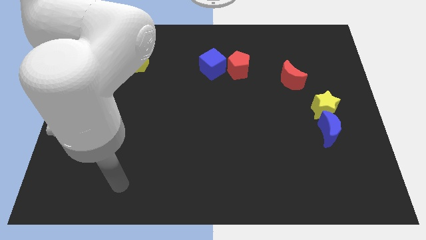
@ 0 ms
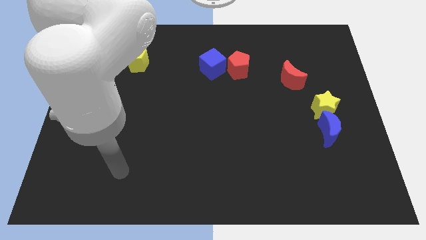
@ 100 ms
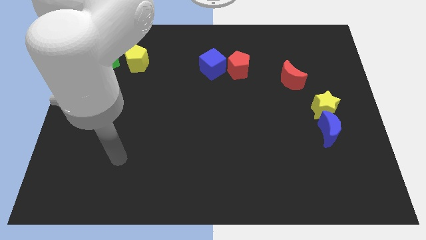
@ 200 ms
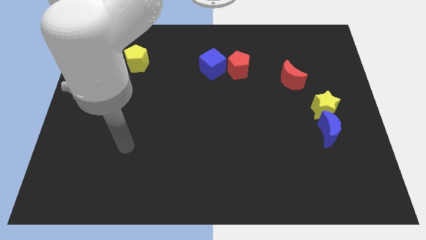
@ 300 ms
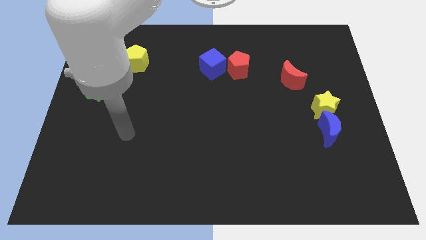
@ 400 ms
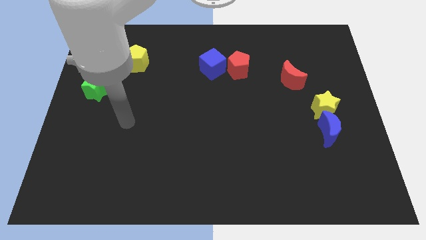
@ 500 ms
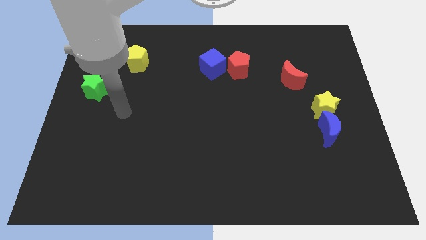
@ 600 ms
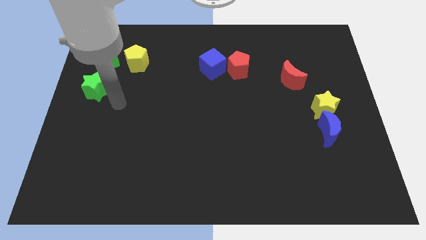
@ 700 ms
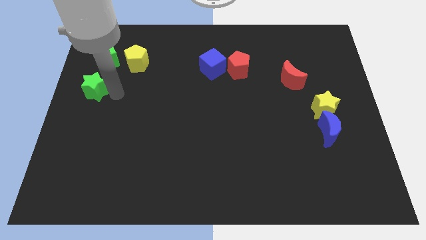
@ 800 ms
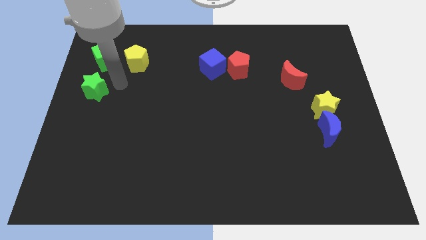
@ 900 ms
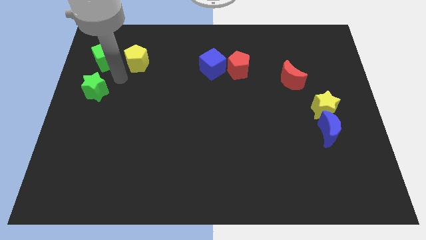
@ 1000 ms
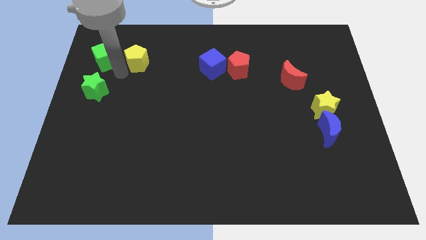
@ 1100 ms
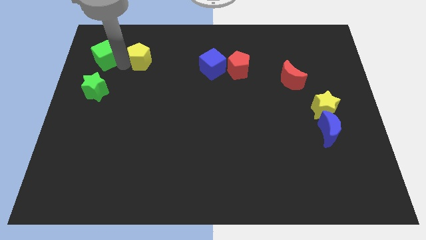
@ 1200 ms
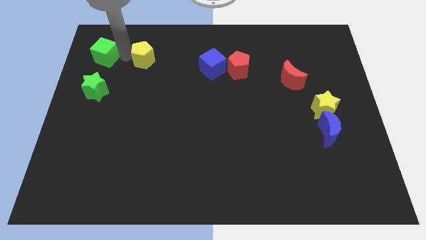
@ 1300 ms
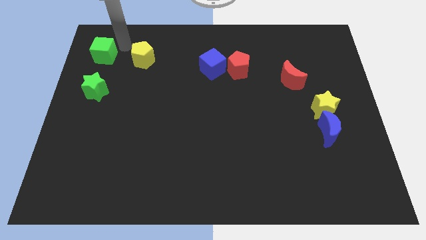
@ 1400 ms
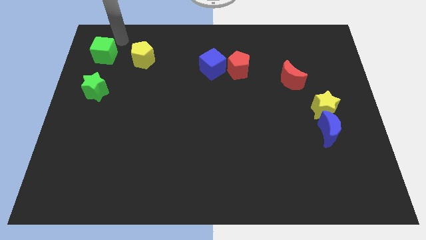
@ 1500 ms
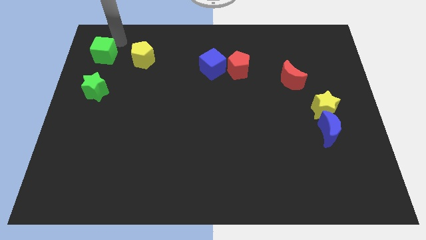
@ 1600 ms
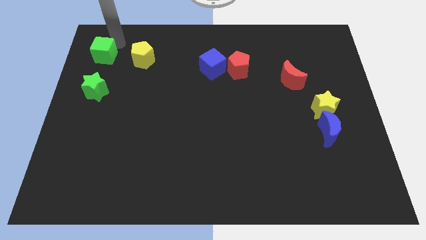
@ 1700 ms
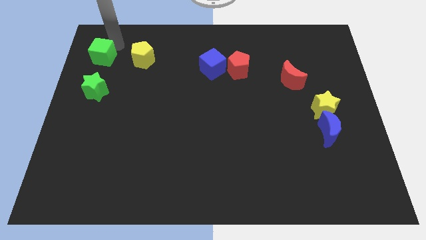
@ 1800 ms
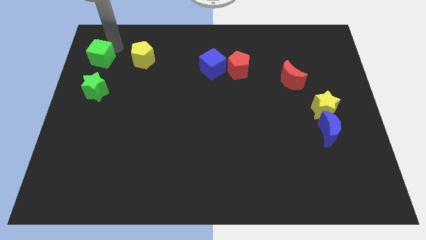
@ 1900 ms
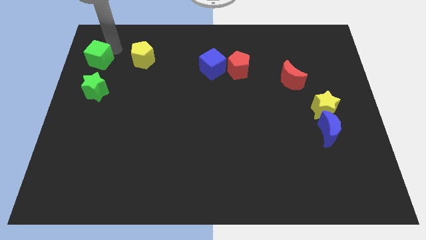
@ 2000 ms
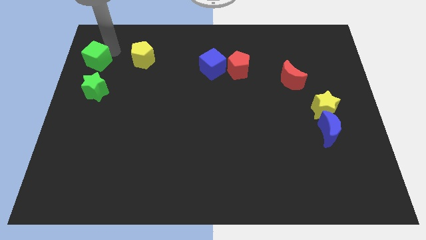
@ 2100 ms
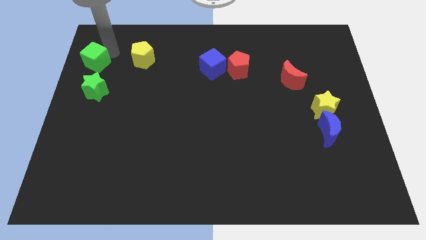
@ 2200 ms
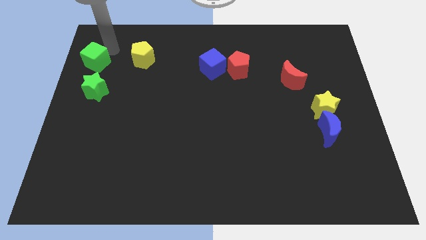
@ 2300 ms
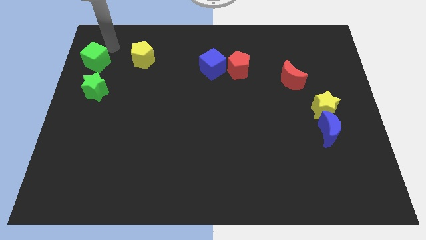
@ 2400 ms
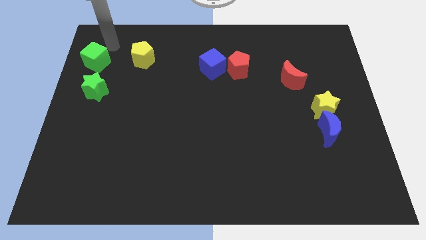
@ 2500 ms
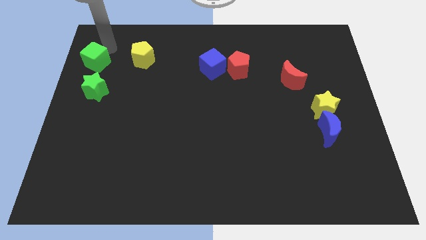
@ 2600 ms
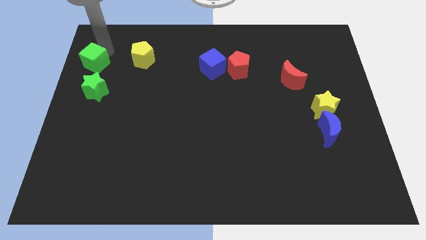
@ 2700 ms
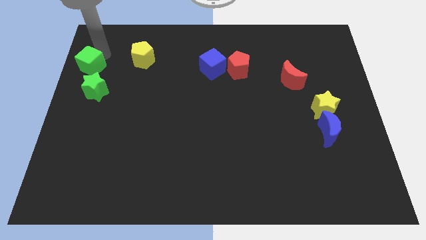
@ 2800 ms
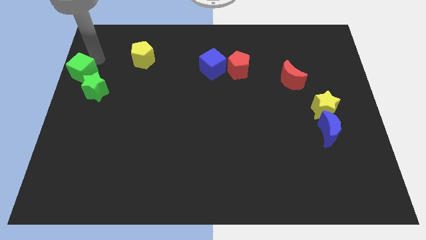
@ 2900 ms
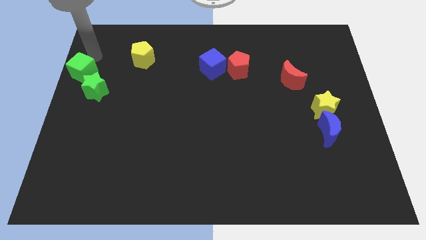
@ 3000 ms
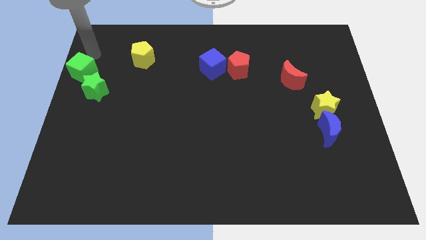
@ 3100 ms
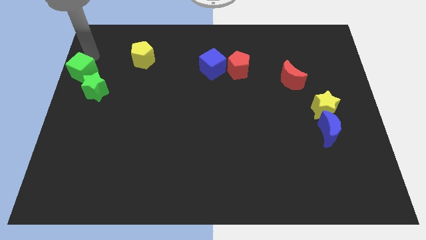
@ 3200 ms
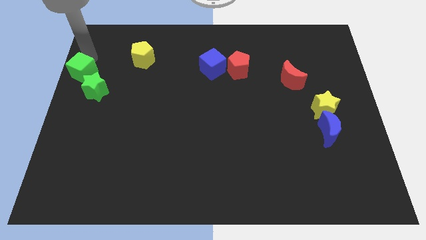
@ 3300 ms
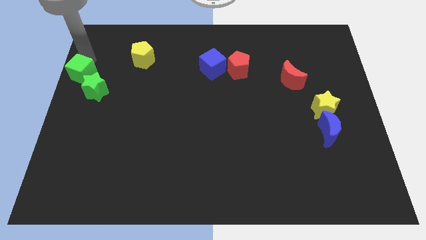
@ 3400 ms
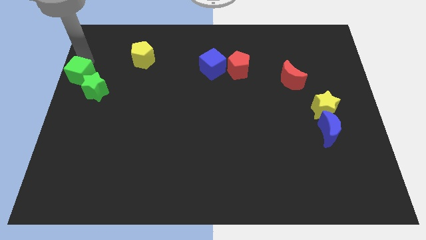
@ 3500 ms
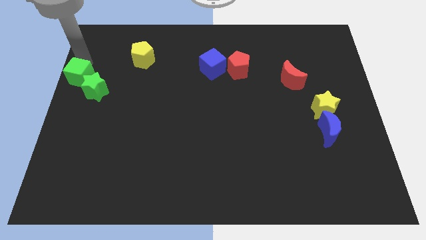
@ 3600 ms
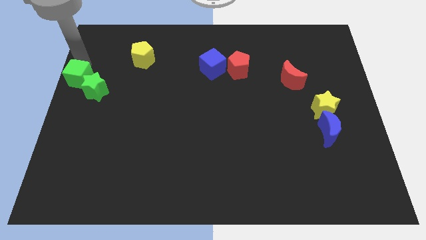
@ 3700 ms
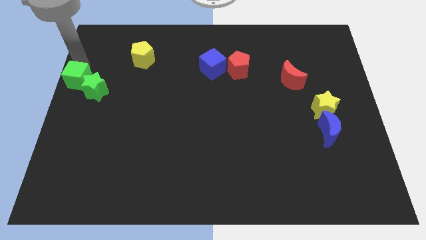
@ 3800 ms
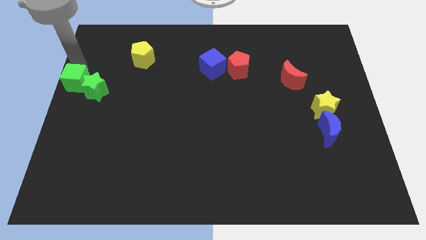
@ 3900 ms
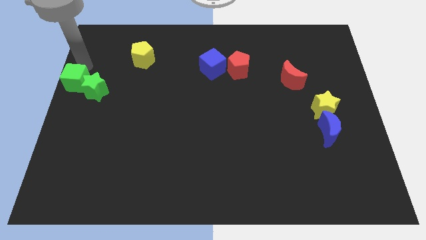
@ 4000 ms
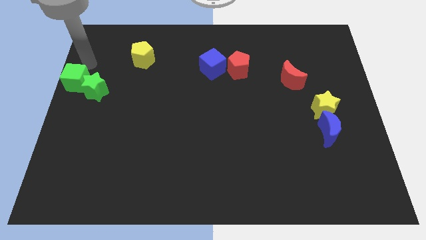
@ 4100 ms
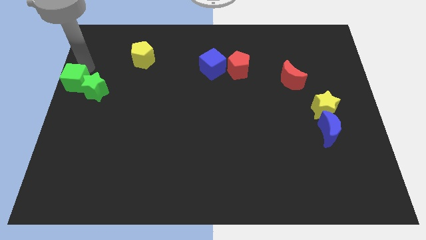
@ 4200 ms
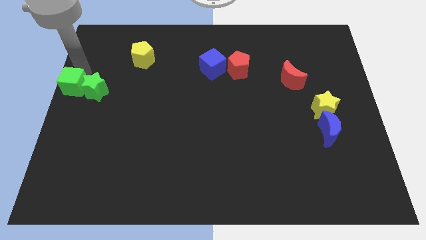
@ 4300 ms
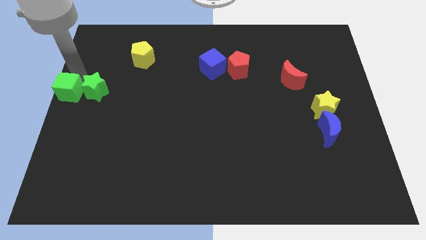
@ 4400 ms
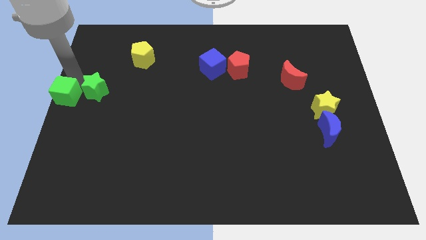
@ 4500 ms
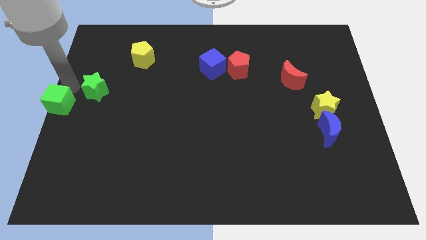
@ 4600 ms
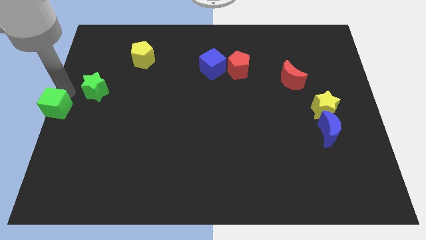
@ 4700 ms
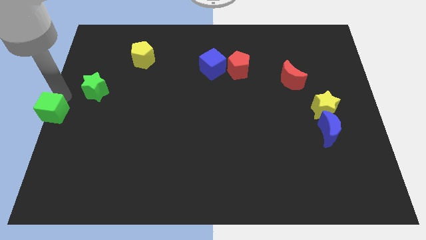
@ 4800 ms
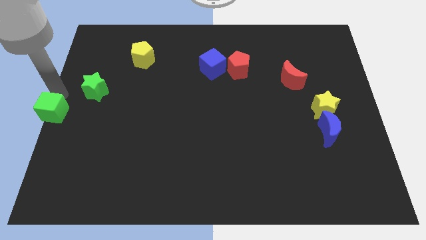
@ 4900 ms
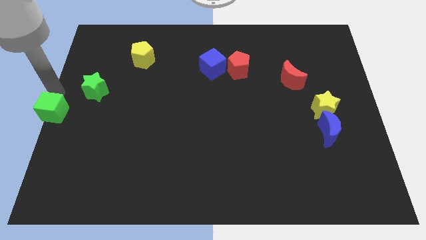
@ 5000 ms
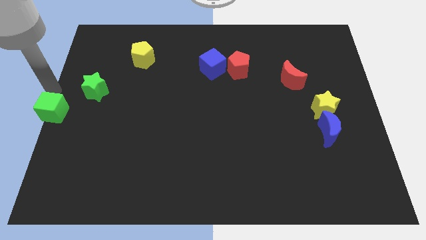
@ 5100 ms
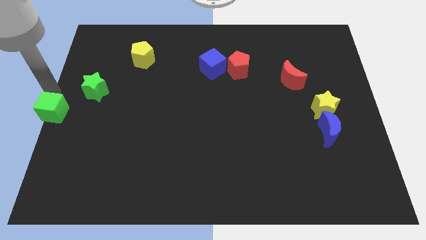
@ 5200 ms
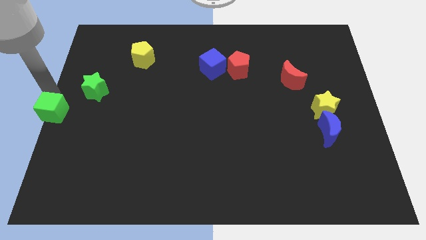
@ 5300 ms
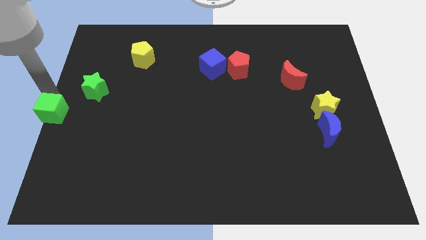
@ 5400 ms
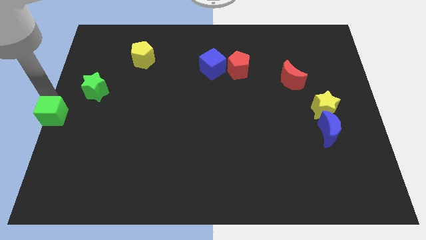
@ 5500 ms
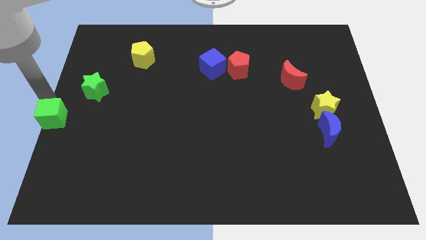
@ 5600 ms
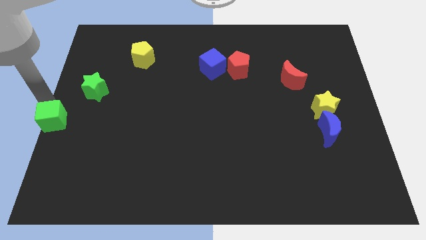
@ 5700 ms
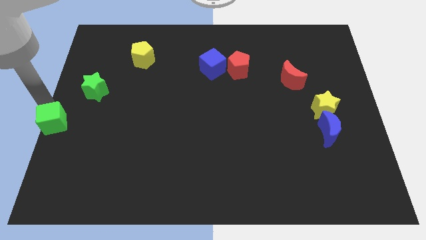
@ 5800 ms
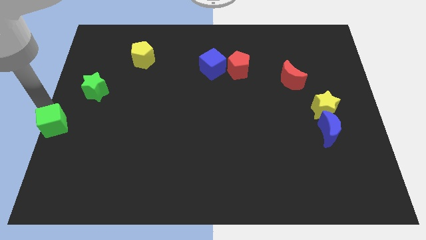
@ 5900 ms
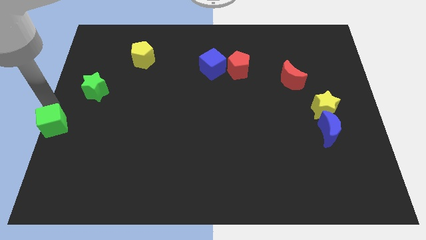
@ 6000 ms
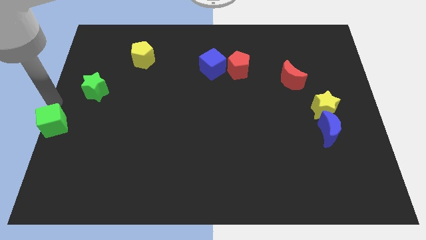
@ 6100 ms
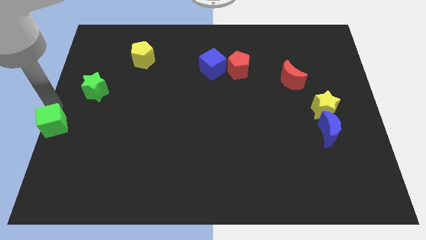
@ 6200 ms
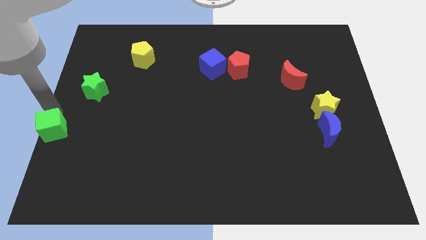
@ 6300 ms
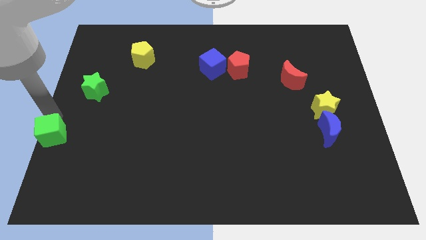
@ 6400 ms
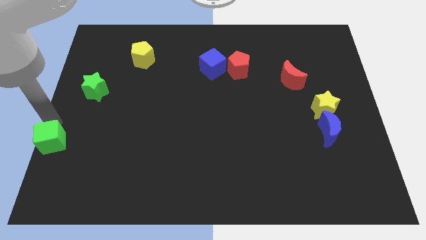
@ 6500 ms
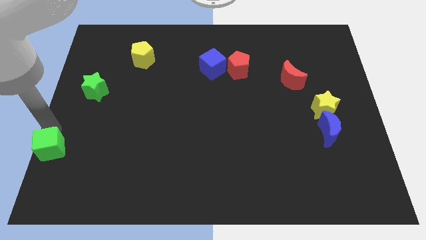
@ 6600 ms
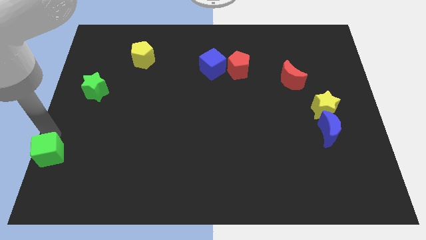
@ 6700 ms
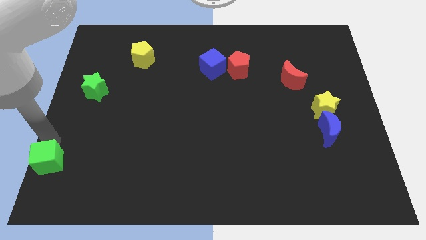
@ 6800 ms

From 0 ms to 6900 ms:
slide the green cube to the bottom left corner

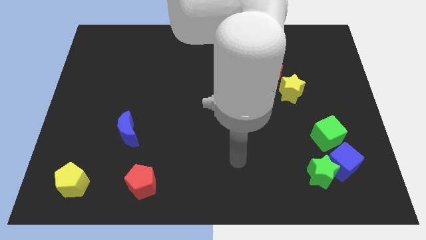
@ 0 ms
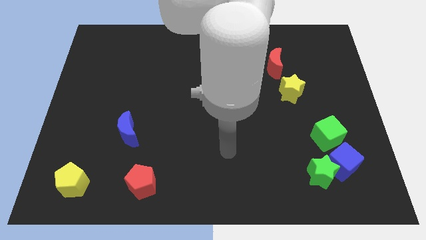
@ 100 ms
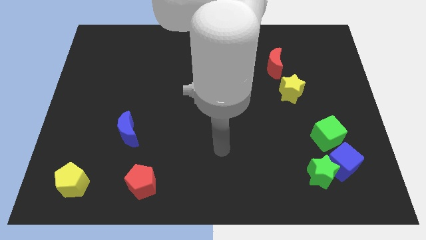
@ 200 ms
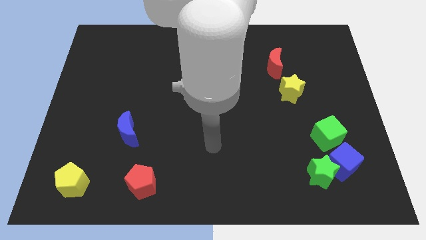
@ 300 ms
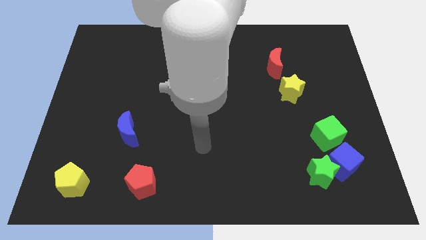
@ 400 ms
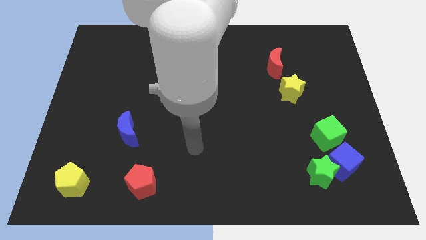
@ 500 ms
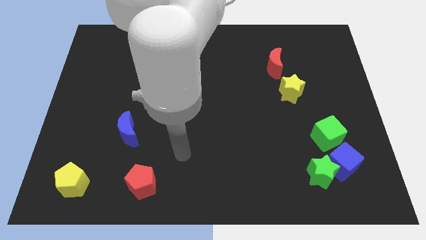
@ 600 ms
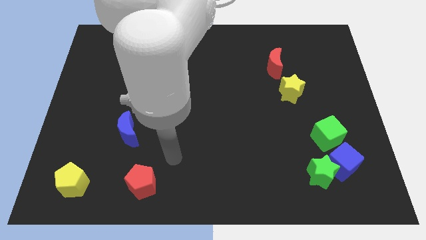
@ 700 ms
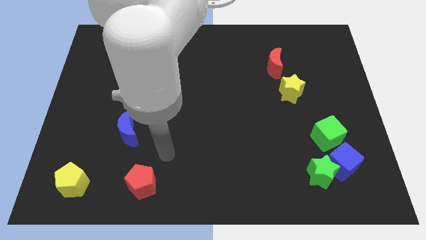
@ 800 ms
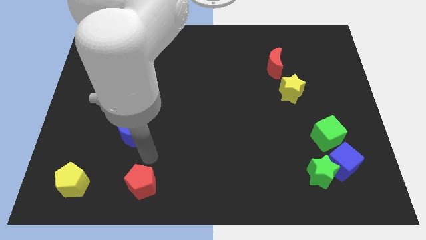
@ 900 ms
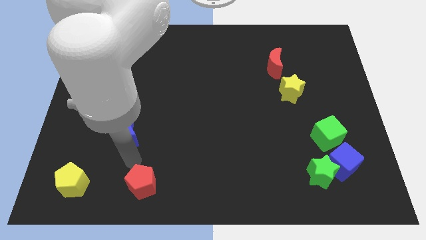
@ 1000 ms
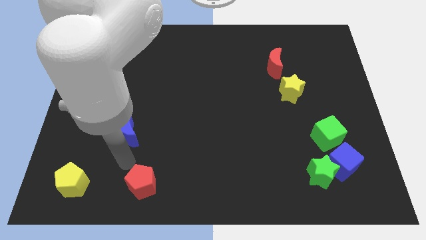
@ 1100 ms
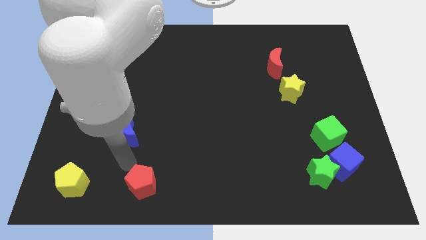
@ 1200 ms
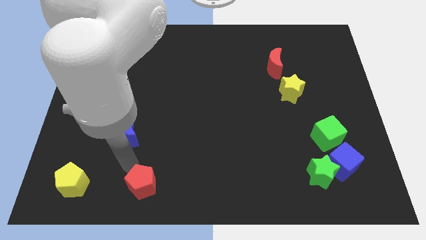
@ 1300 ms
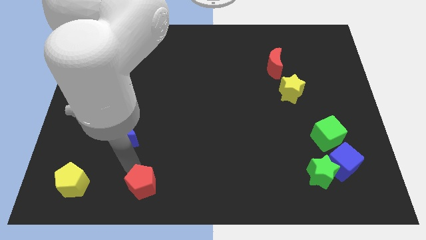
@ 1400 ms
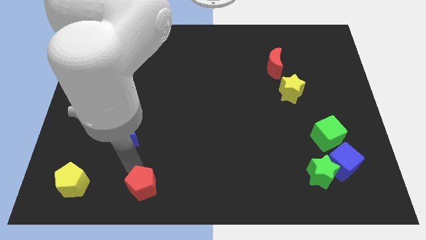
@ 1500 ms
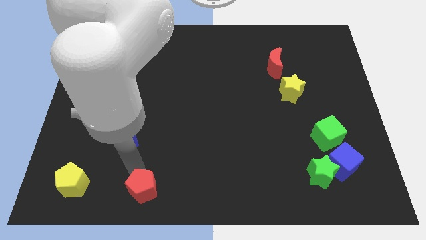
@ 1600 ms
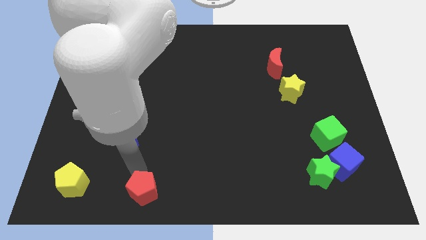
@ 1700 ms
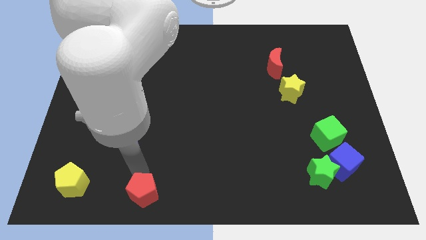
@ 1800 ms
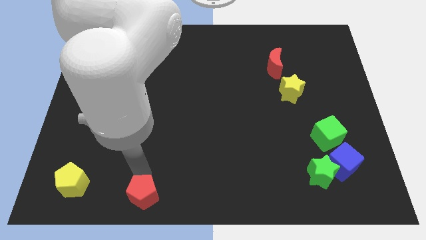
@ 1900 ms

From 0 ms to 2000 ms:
put the red pentagon to the bottom
